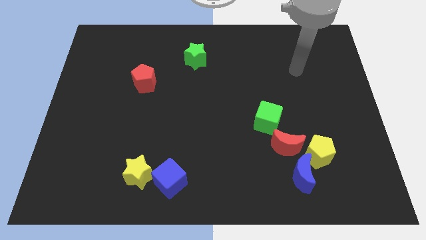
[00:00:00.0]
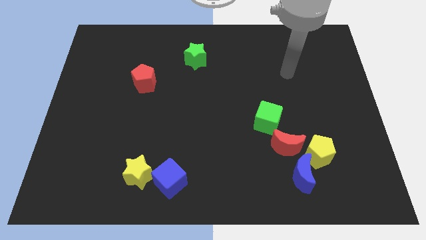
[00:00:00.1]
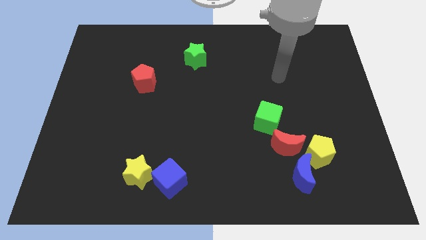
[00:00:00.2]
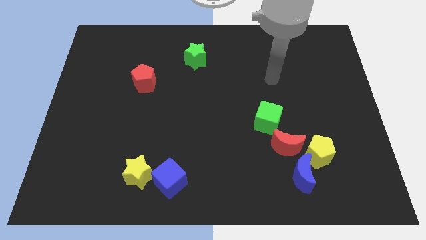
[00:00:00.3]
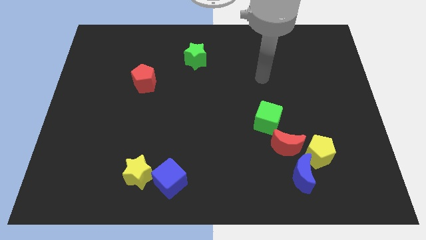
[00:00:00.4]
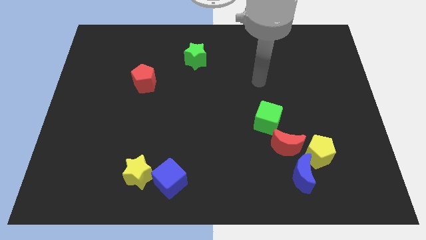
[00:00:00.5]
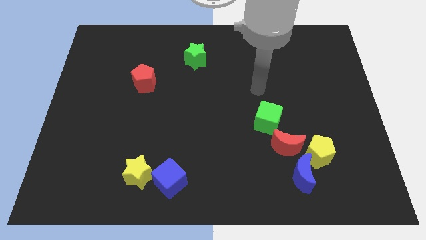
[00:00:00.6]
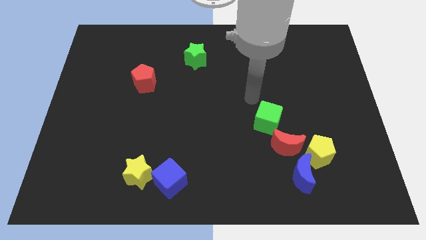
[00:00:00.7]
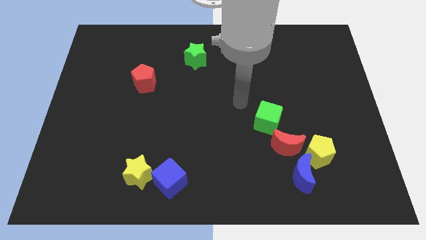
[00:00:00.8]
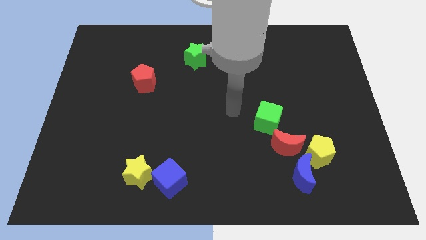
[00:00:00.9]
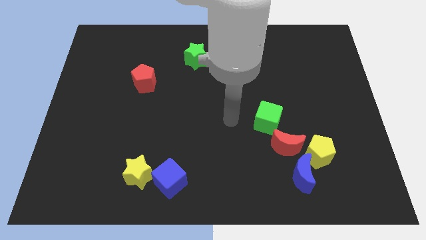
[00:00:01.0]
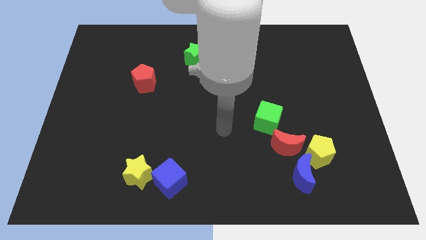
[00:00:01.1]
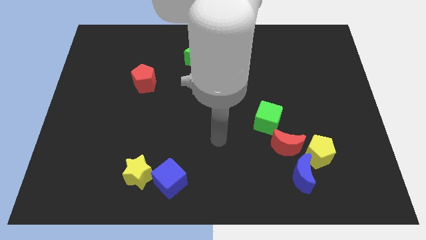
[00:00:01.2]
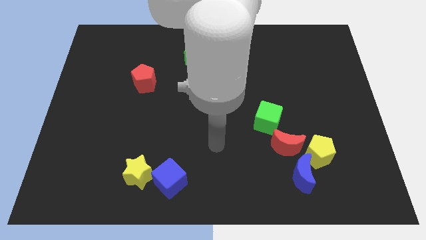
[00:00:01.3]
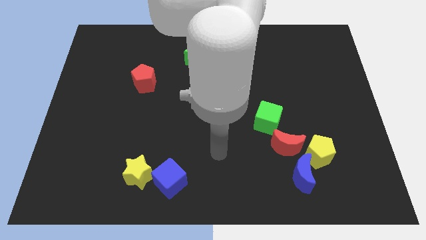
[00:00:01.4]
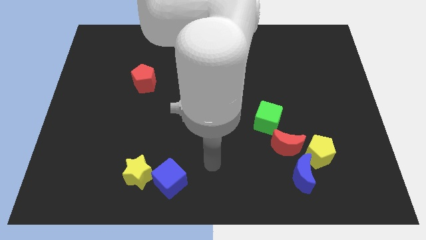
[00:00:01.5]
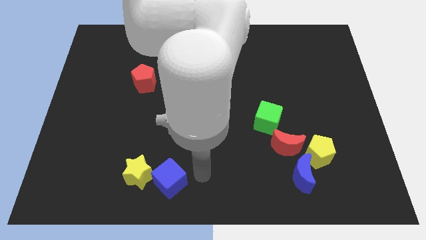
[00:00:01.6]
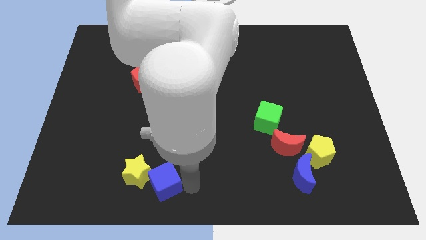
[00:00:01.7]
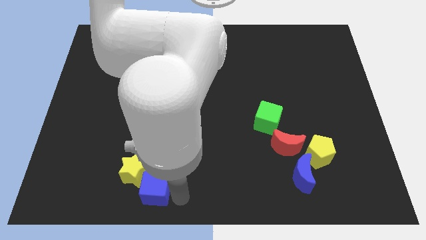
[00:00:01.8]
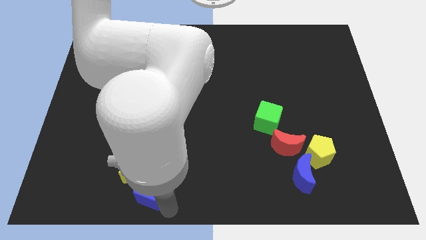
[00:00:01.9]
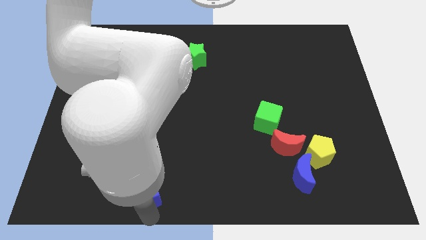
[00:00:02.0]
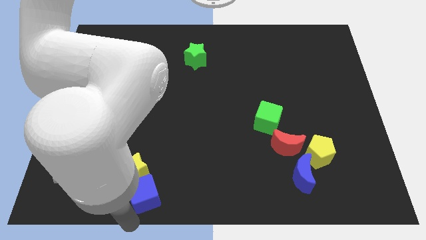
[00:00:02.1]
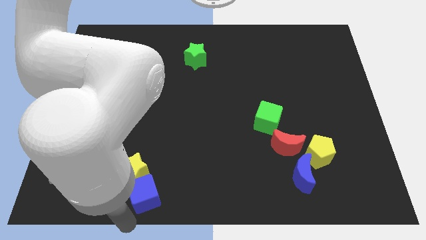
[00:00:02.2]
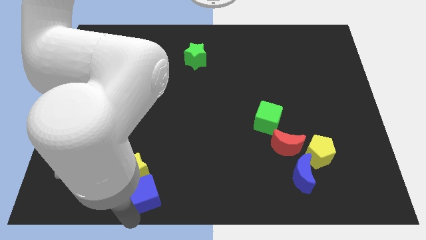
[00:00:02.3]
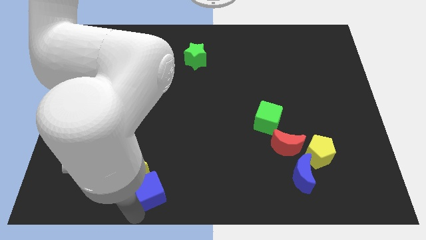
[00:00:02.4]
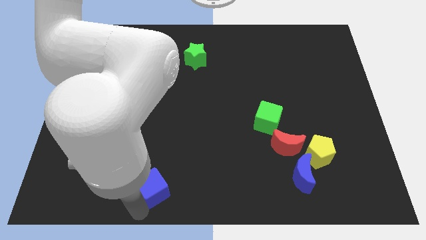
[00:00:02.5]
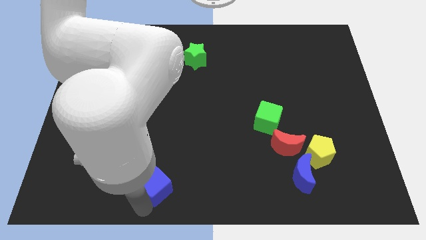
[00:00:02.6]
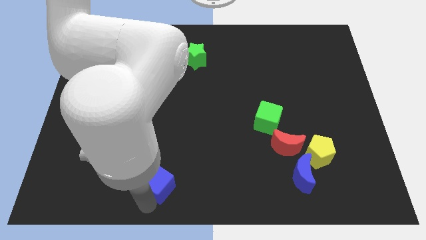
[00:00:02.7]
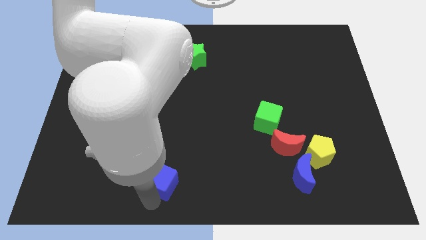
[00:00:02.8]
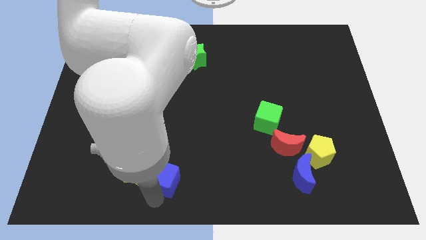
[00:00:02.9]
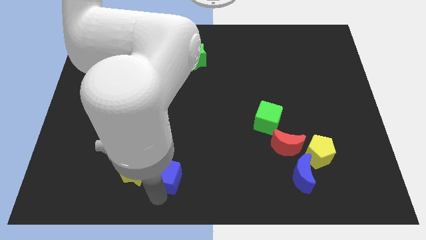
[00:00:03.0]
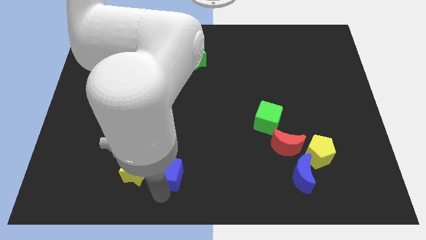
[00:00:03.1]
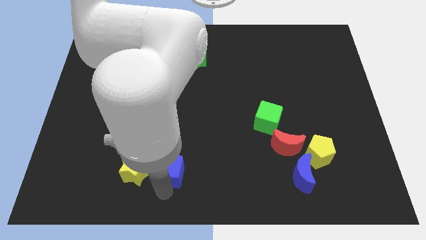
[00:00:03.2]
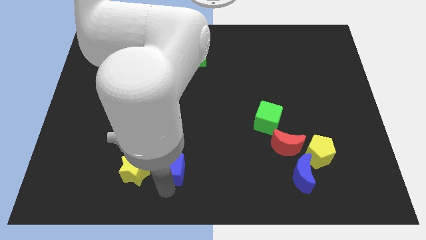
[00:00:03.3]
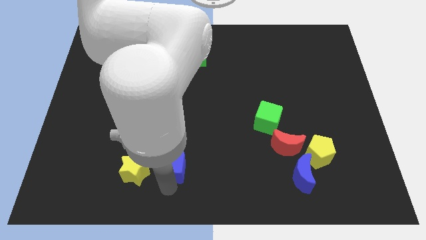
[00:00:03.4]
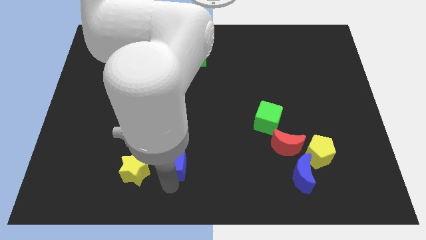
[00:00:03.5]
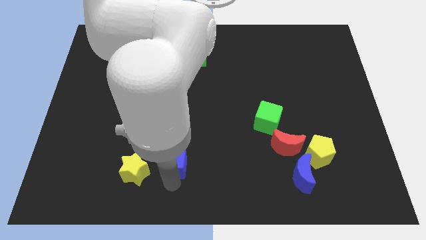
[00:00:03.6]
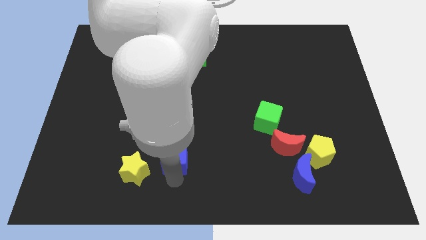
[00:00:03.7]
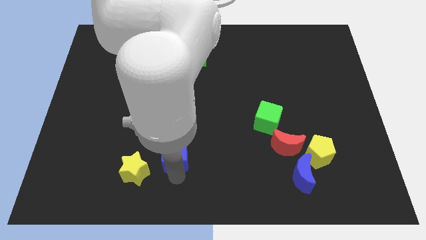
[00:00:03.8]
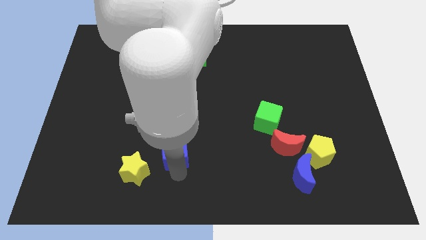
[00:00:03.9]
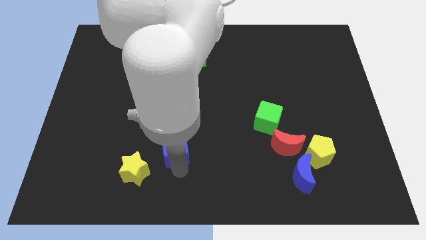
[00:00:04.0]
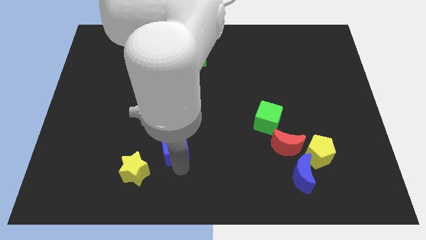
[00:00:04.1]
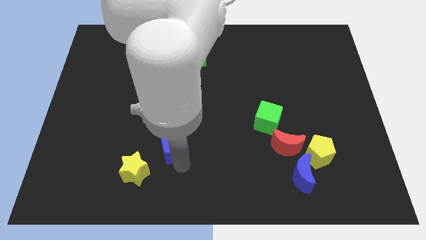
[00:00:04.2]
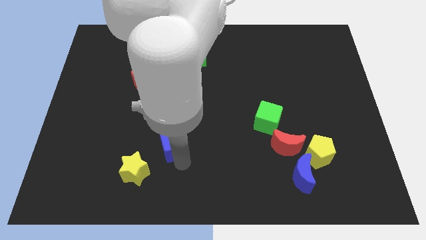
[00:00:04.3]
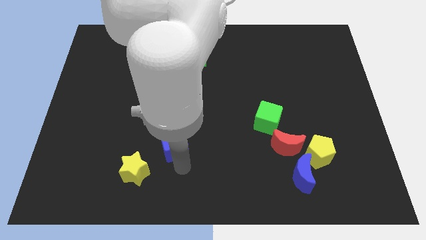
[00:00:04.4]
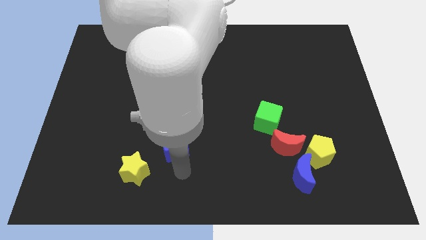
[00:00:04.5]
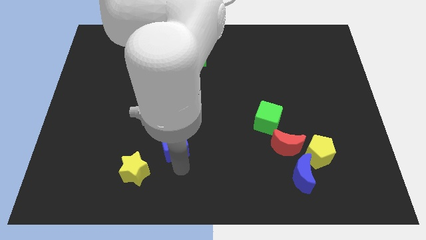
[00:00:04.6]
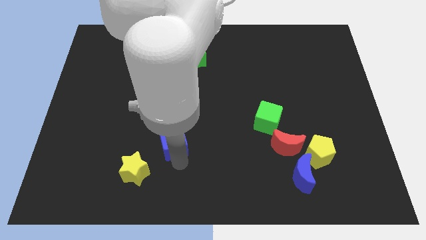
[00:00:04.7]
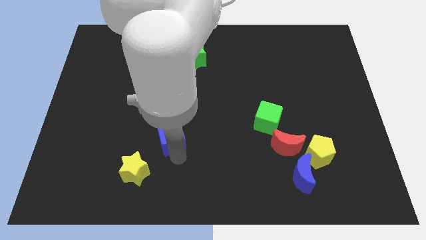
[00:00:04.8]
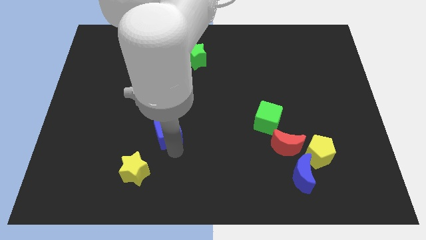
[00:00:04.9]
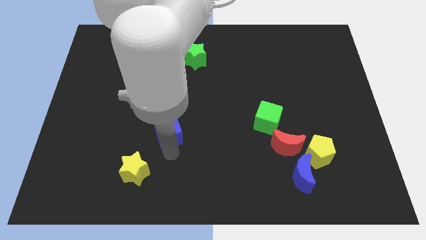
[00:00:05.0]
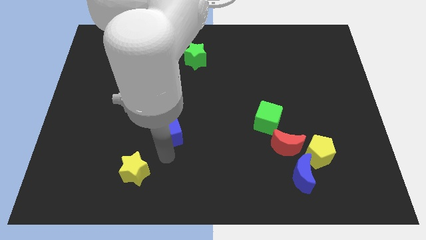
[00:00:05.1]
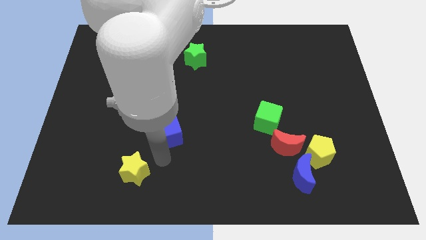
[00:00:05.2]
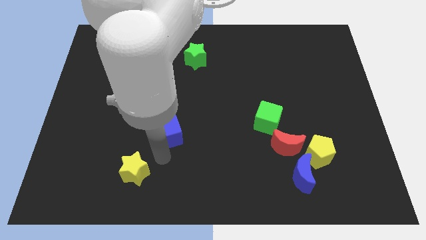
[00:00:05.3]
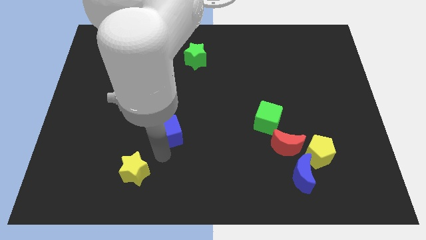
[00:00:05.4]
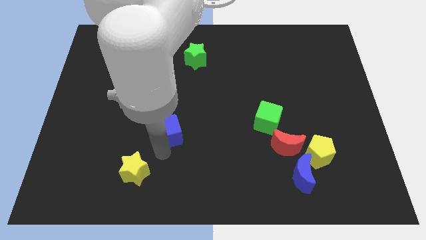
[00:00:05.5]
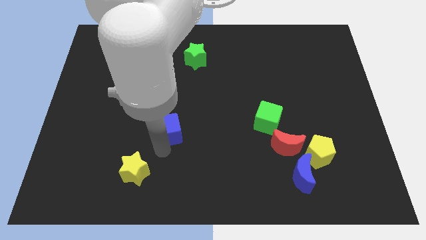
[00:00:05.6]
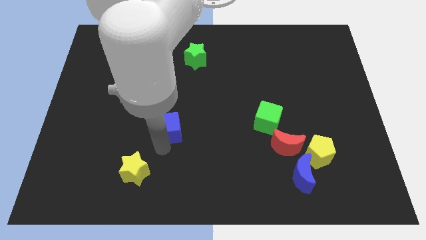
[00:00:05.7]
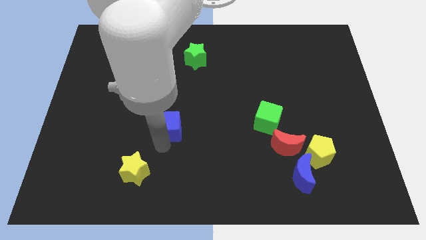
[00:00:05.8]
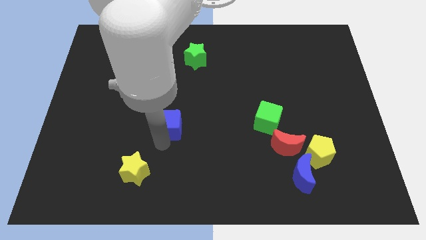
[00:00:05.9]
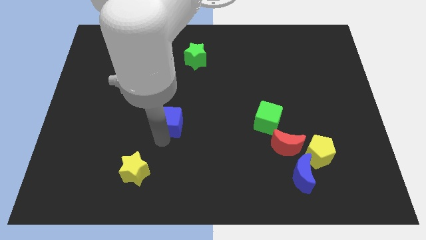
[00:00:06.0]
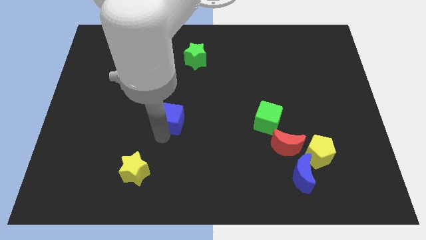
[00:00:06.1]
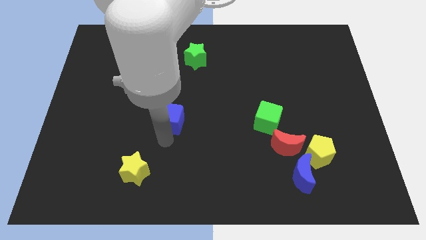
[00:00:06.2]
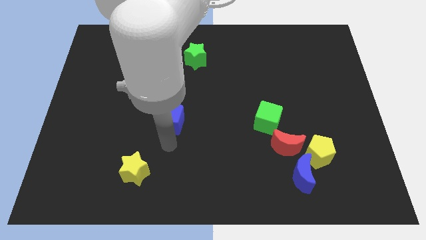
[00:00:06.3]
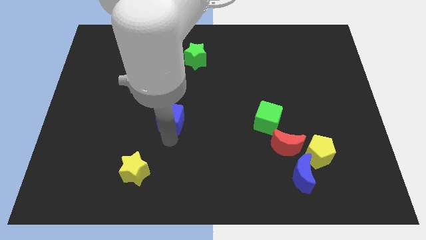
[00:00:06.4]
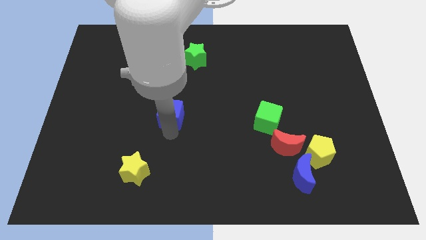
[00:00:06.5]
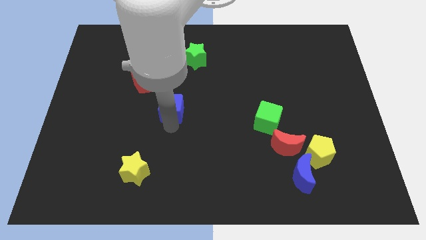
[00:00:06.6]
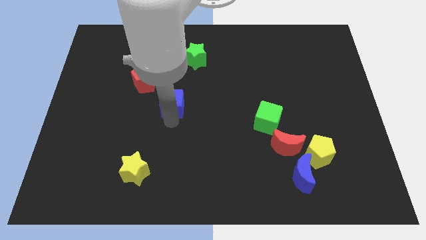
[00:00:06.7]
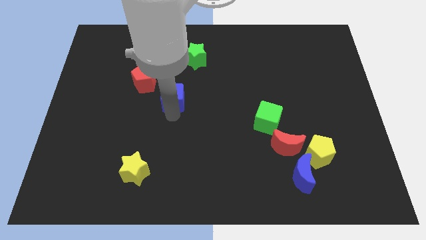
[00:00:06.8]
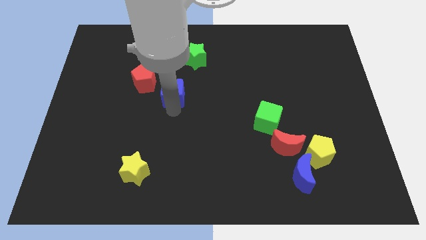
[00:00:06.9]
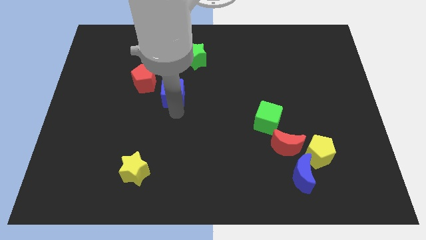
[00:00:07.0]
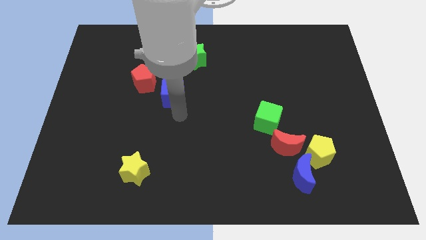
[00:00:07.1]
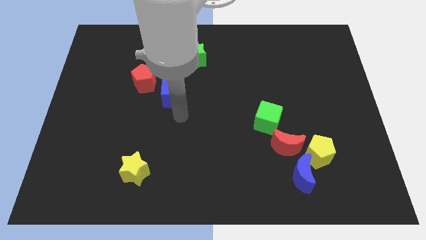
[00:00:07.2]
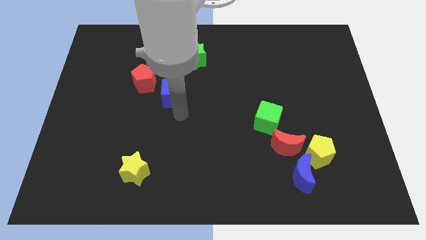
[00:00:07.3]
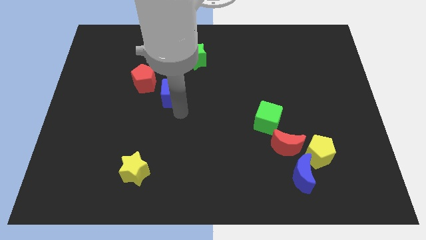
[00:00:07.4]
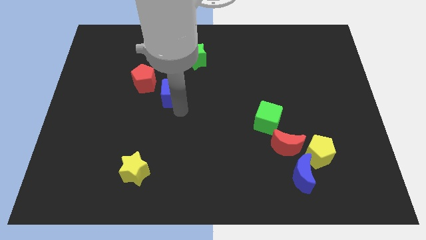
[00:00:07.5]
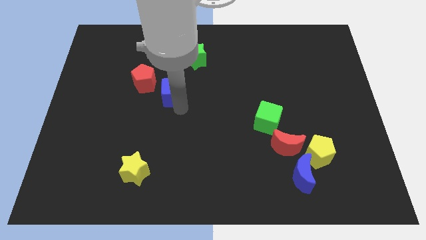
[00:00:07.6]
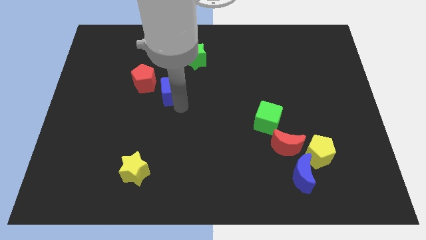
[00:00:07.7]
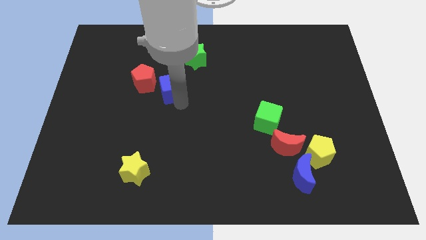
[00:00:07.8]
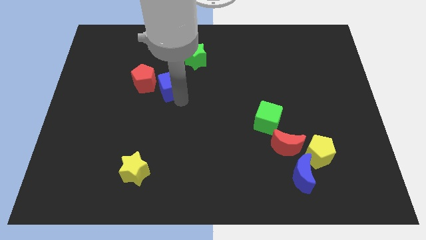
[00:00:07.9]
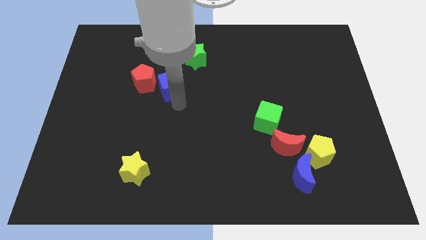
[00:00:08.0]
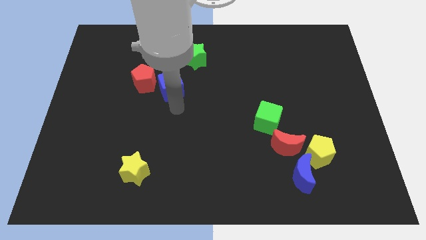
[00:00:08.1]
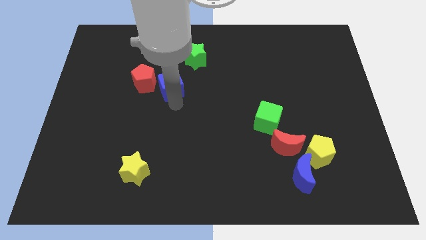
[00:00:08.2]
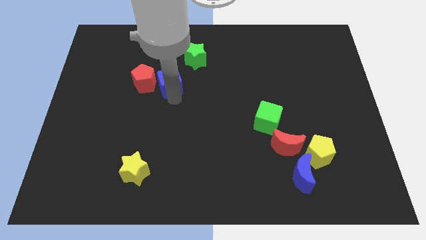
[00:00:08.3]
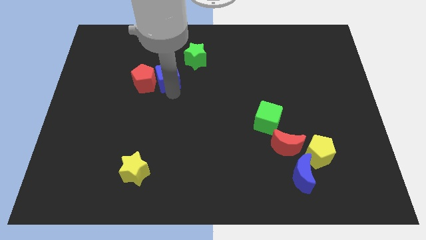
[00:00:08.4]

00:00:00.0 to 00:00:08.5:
slide the blue cube diagonally up and to the right of the red pentagon
